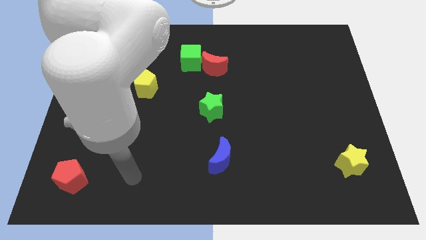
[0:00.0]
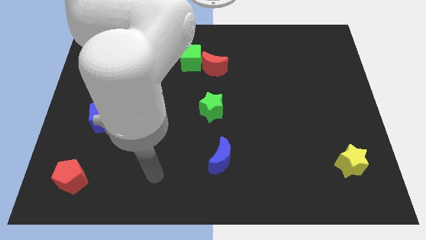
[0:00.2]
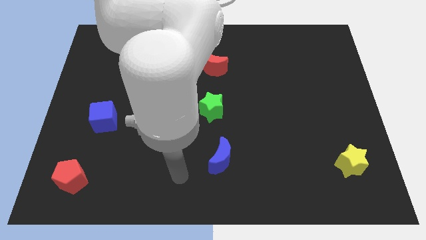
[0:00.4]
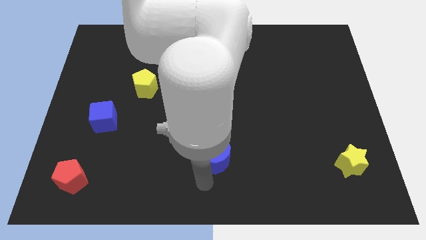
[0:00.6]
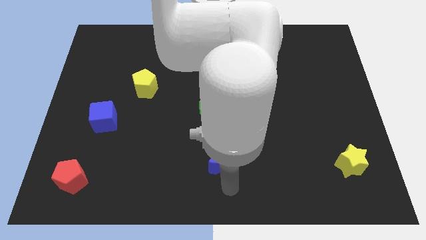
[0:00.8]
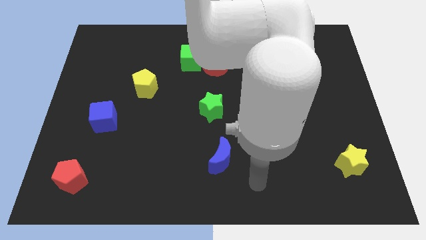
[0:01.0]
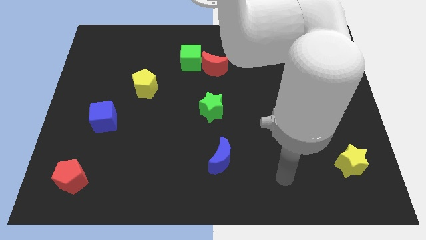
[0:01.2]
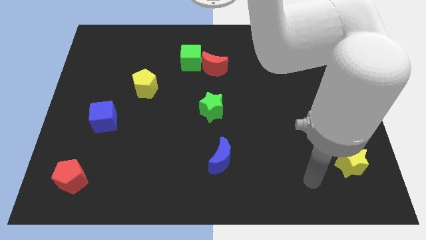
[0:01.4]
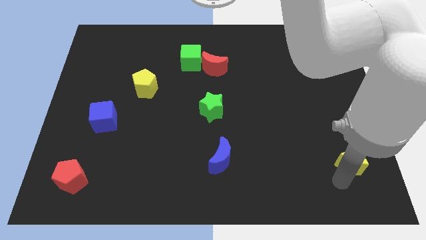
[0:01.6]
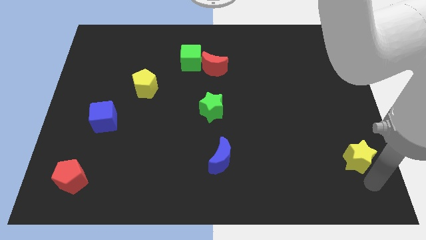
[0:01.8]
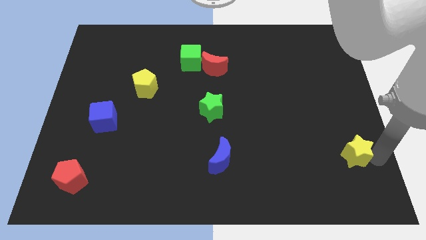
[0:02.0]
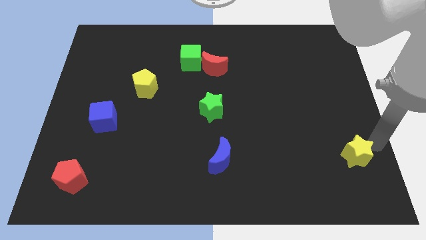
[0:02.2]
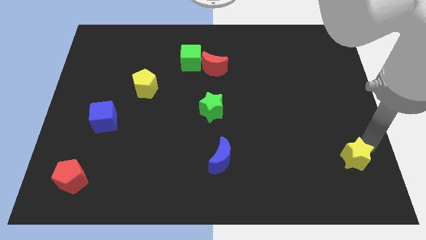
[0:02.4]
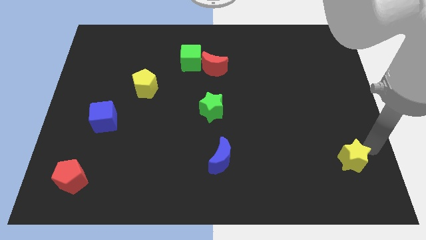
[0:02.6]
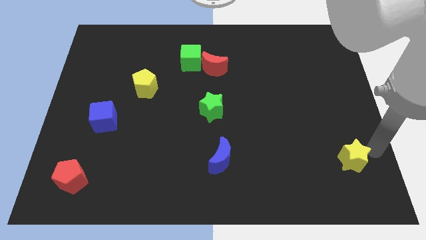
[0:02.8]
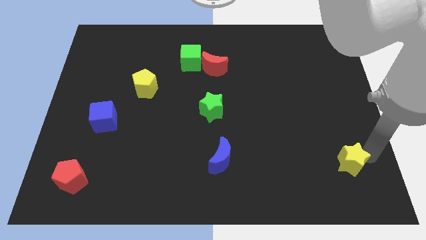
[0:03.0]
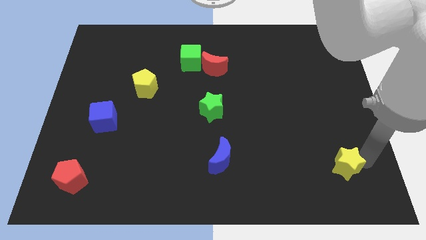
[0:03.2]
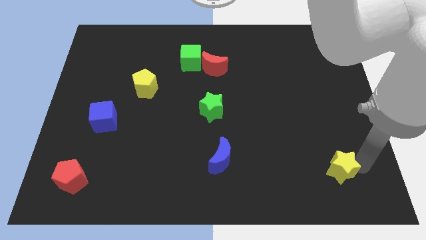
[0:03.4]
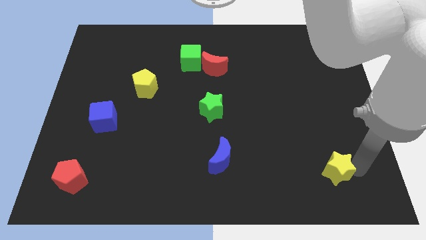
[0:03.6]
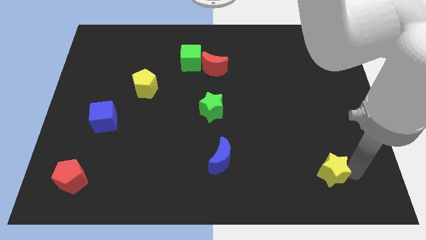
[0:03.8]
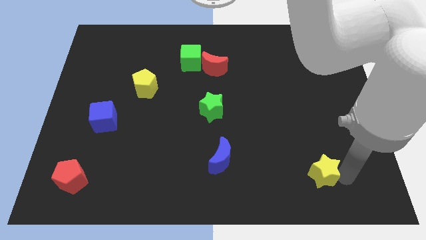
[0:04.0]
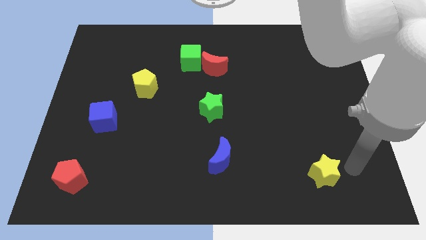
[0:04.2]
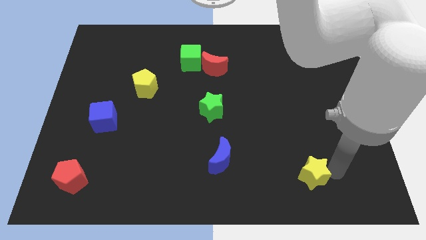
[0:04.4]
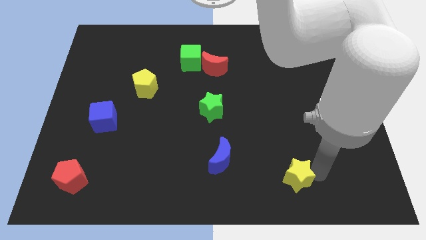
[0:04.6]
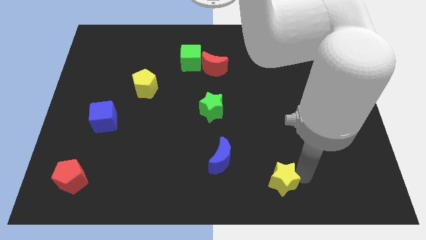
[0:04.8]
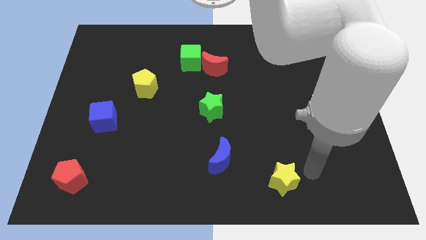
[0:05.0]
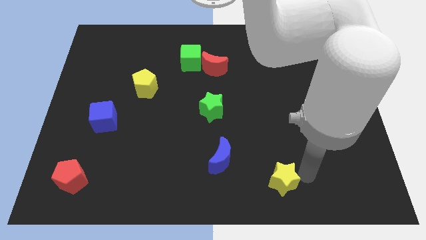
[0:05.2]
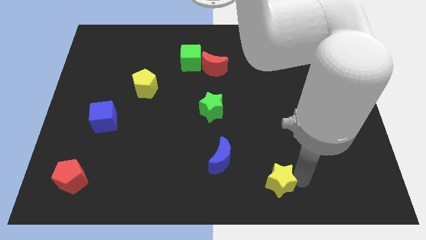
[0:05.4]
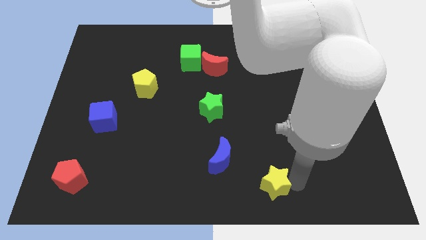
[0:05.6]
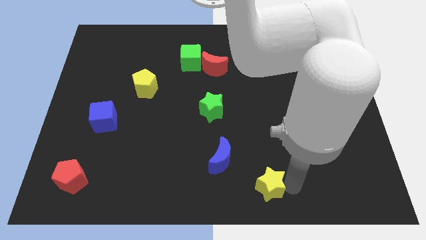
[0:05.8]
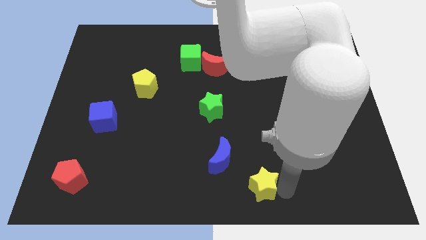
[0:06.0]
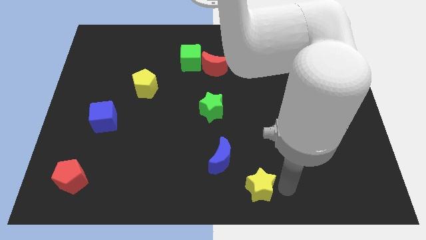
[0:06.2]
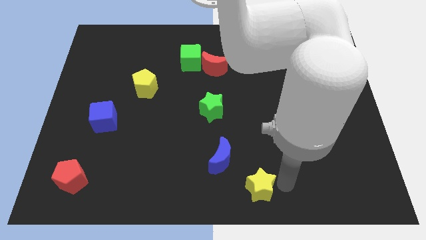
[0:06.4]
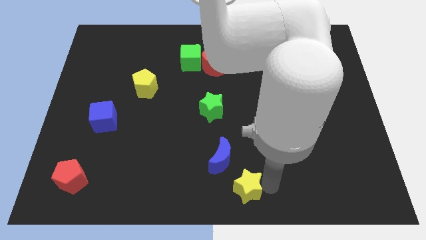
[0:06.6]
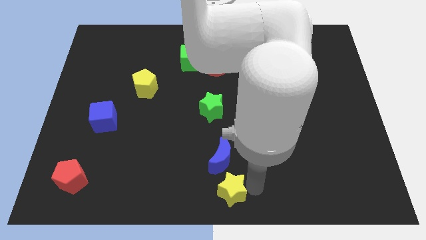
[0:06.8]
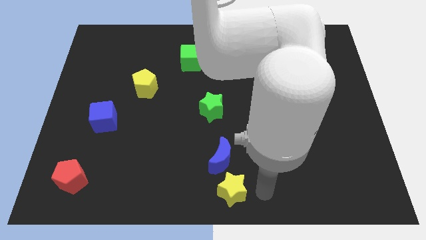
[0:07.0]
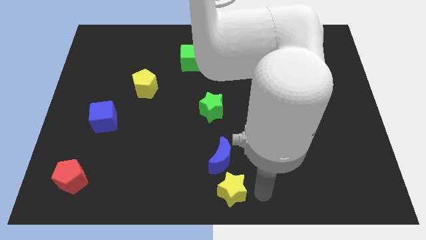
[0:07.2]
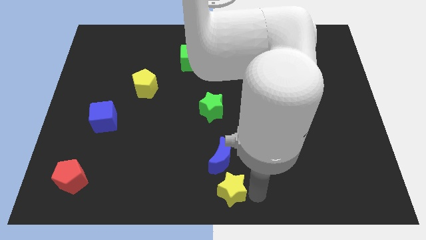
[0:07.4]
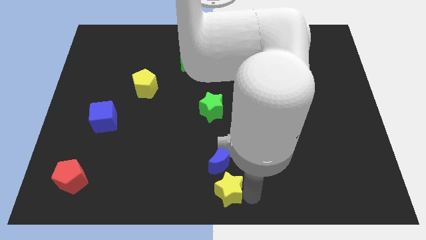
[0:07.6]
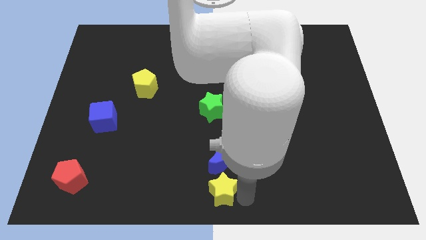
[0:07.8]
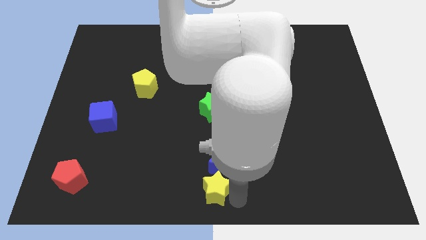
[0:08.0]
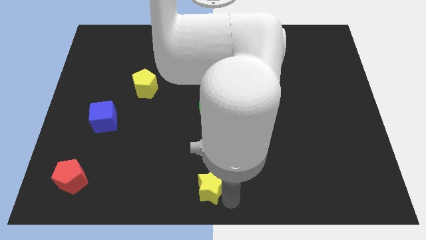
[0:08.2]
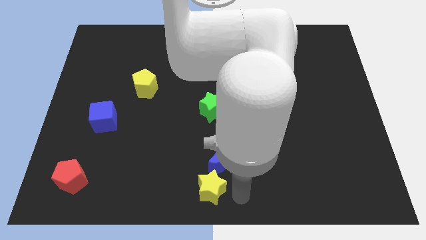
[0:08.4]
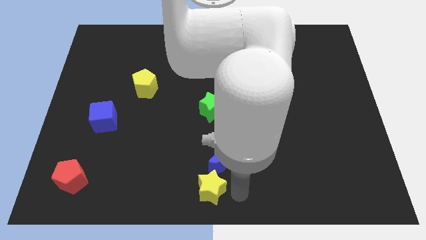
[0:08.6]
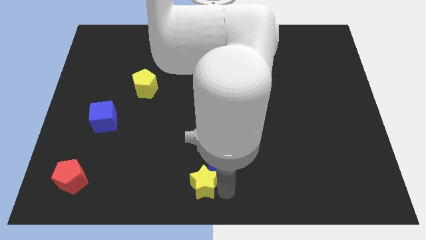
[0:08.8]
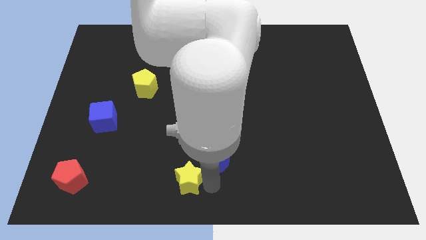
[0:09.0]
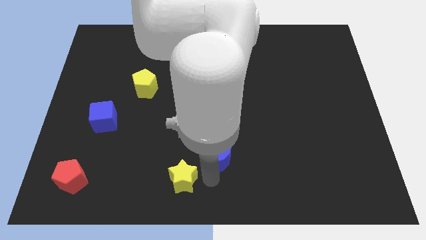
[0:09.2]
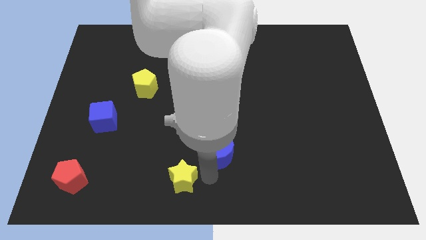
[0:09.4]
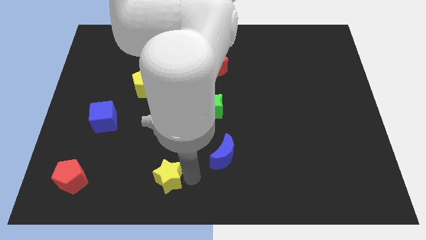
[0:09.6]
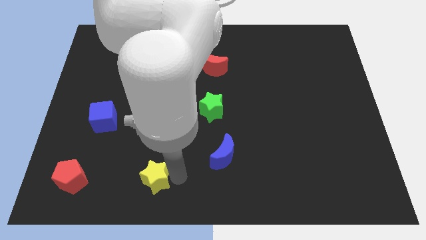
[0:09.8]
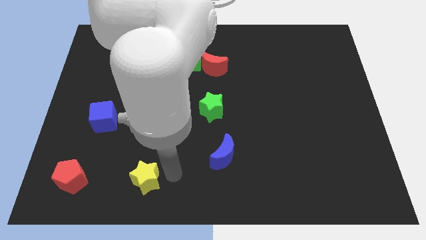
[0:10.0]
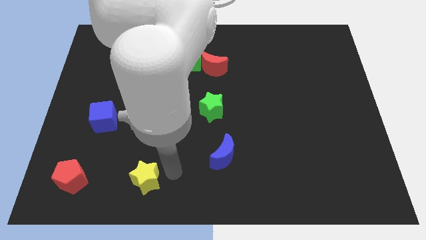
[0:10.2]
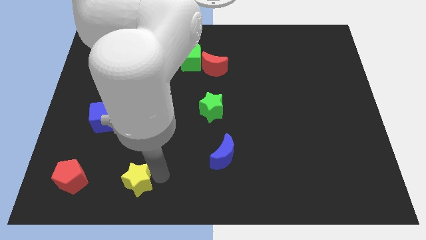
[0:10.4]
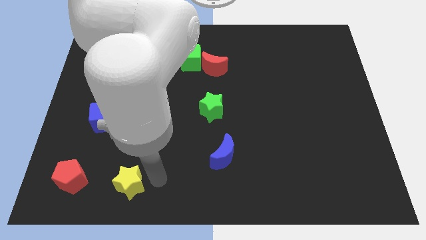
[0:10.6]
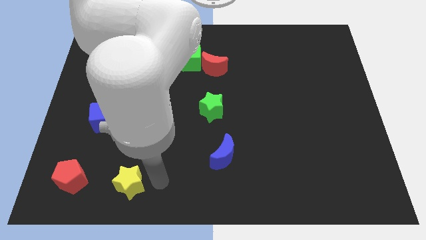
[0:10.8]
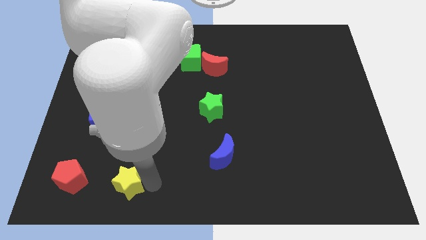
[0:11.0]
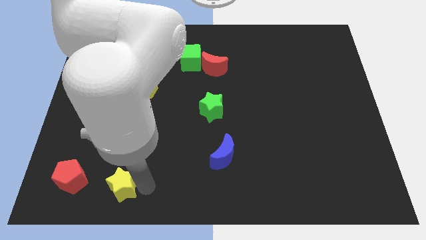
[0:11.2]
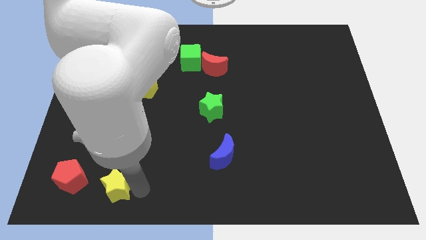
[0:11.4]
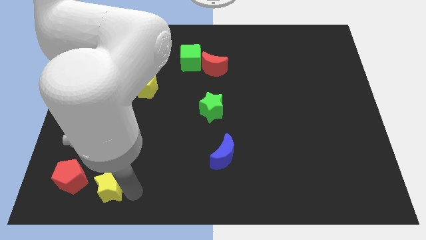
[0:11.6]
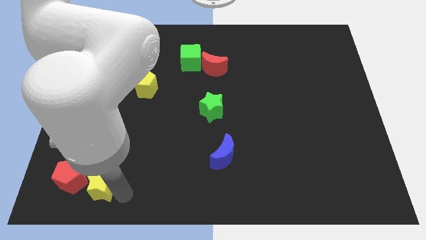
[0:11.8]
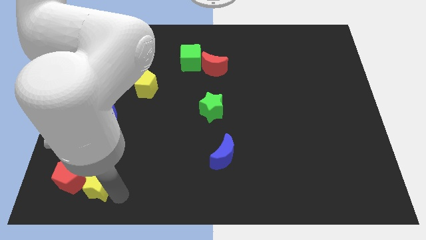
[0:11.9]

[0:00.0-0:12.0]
move the yellow star close to the red pentagon

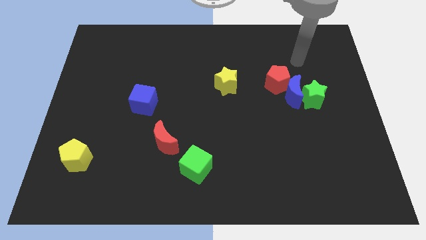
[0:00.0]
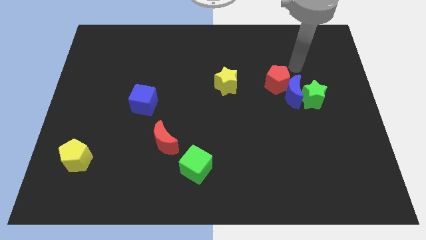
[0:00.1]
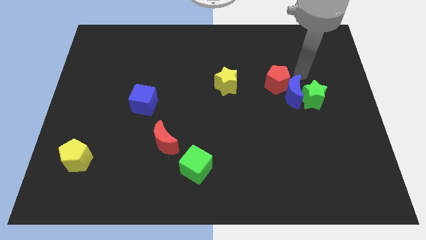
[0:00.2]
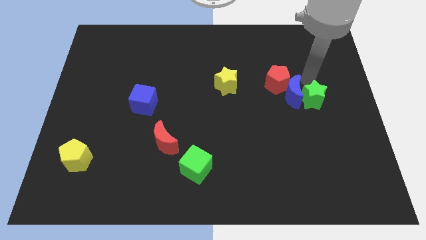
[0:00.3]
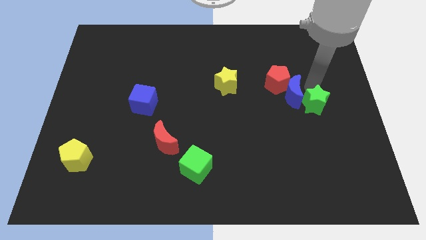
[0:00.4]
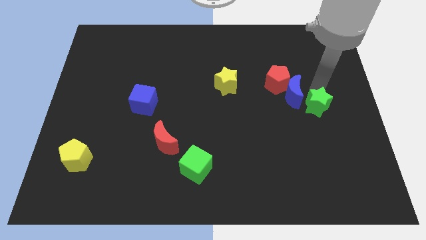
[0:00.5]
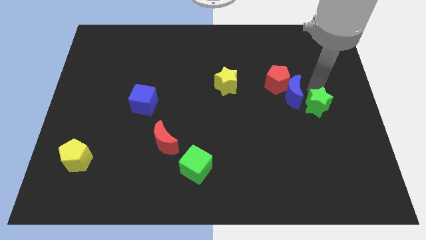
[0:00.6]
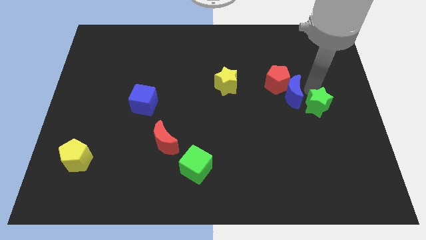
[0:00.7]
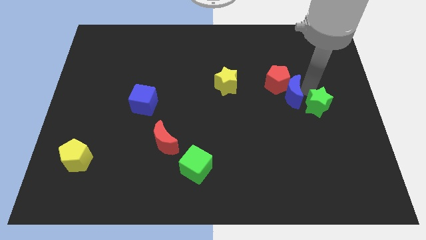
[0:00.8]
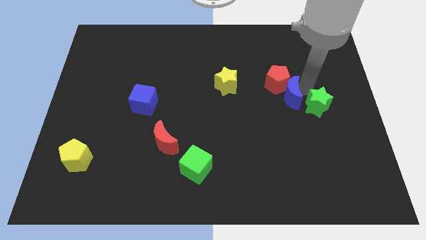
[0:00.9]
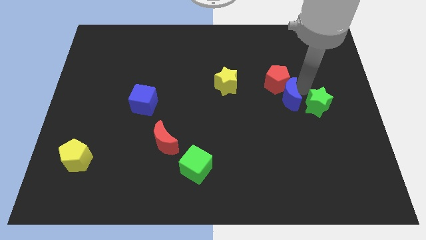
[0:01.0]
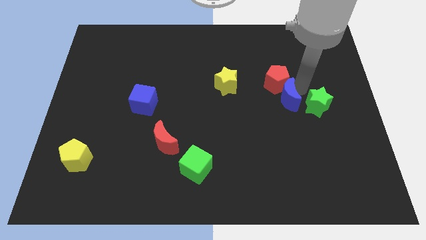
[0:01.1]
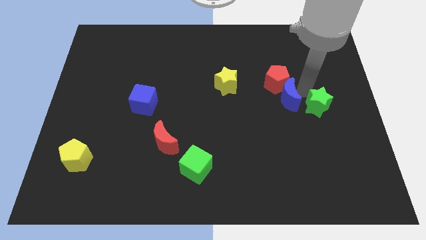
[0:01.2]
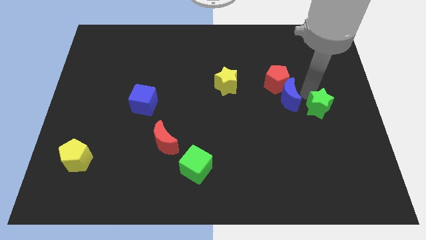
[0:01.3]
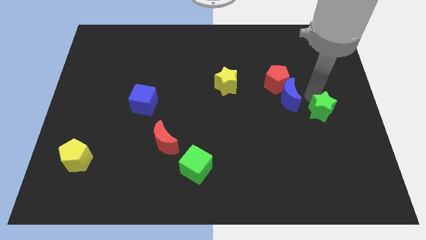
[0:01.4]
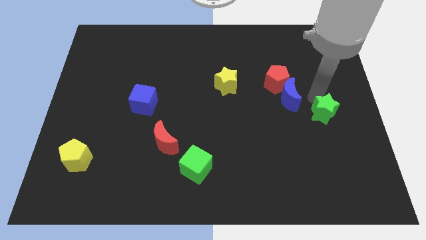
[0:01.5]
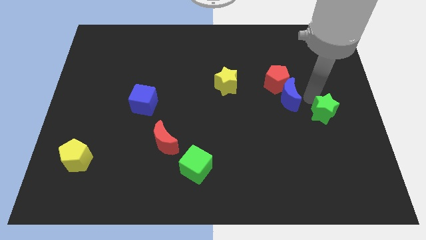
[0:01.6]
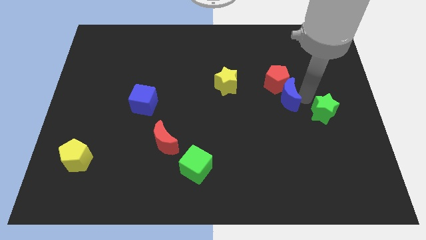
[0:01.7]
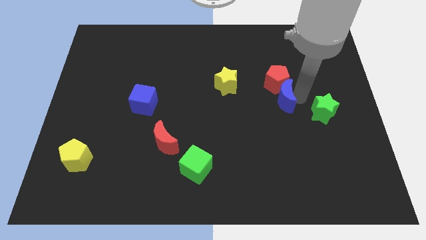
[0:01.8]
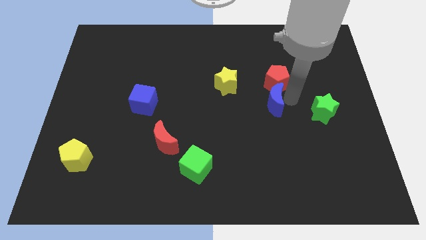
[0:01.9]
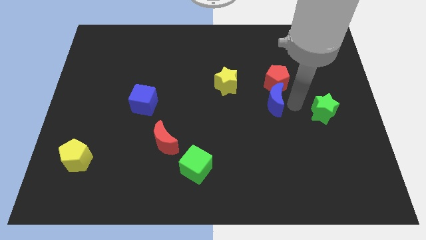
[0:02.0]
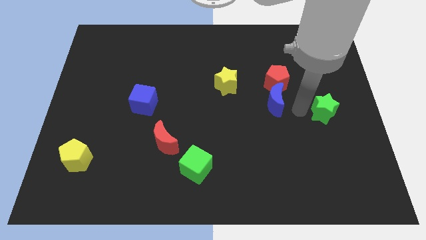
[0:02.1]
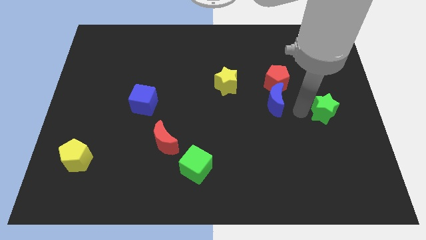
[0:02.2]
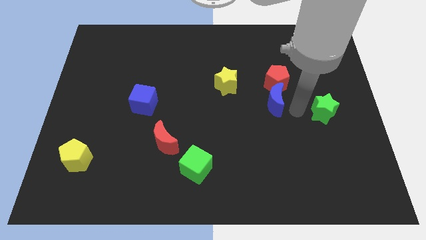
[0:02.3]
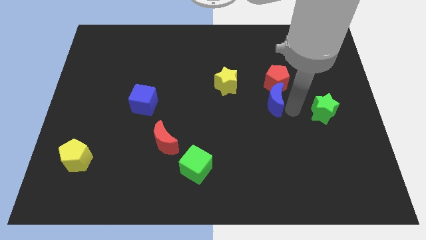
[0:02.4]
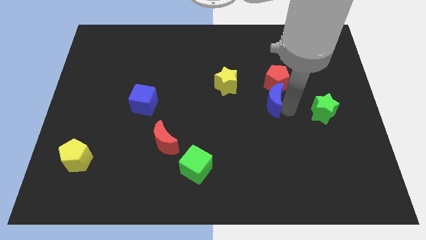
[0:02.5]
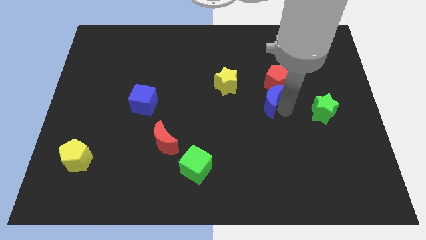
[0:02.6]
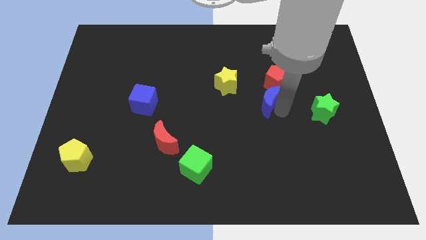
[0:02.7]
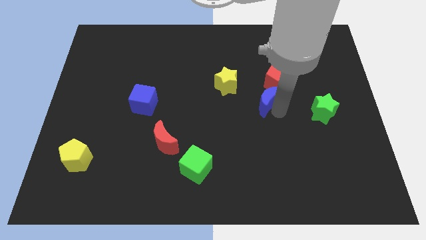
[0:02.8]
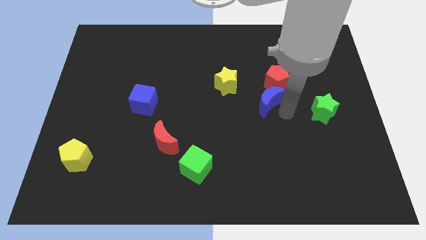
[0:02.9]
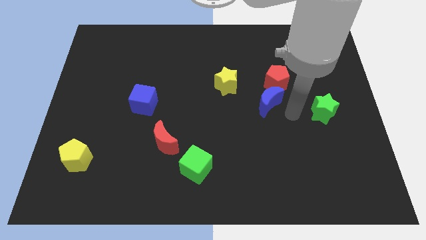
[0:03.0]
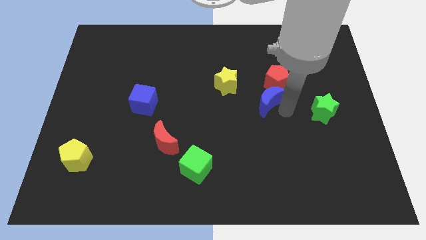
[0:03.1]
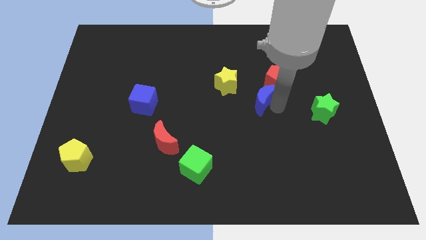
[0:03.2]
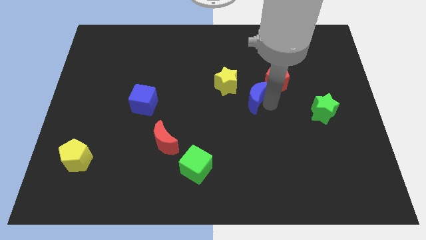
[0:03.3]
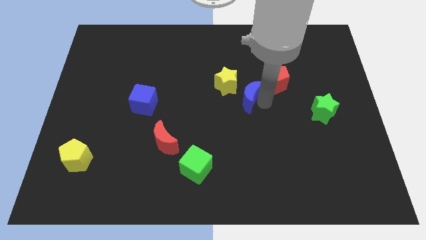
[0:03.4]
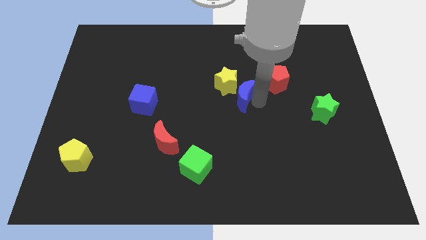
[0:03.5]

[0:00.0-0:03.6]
push the blue moon next to the yellow star
